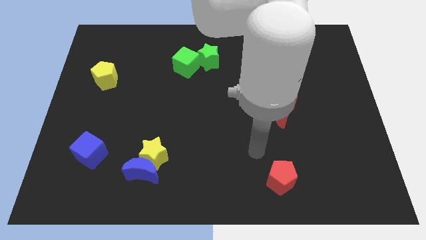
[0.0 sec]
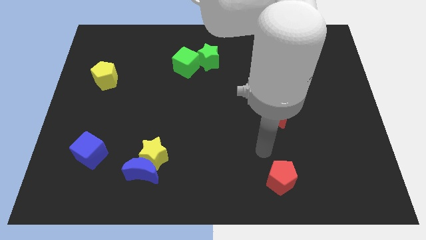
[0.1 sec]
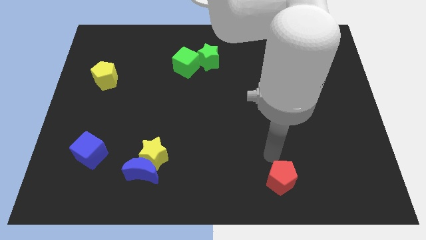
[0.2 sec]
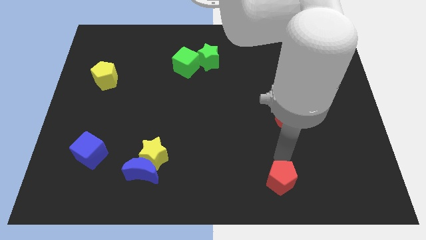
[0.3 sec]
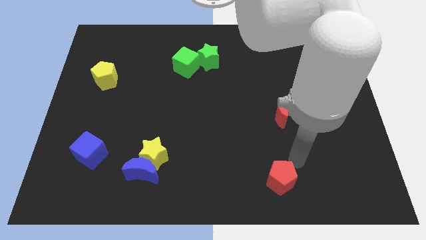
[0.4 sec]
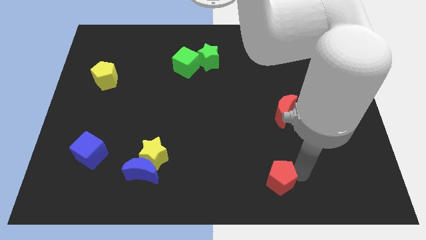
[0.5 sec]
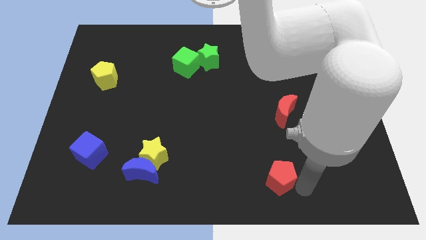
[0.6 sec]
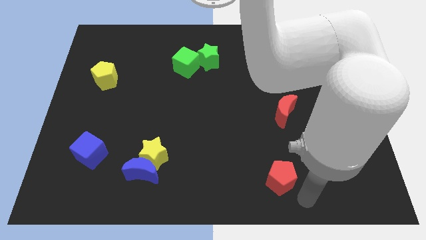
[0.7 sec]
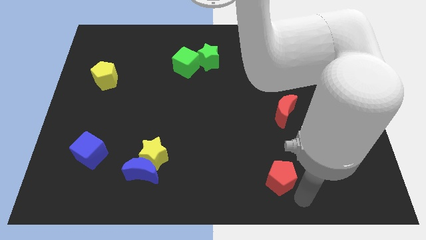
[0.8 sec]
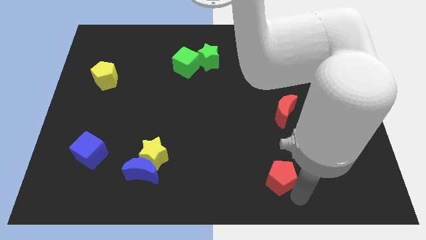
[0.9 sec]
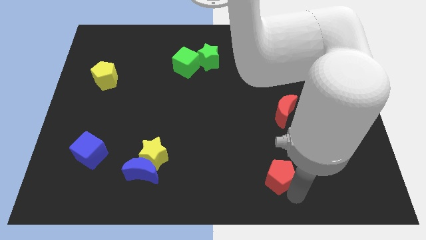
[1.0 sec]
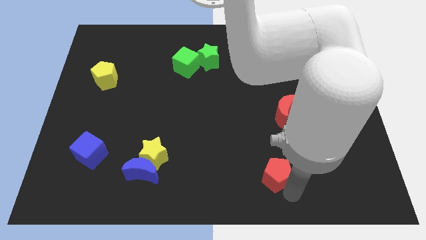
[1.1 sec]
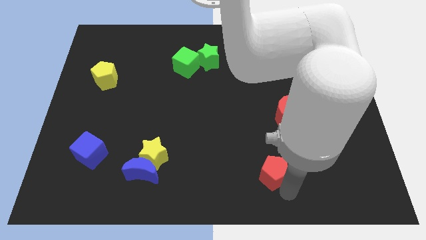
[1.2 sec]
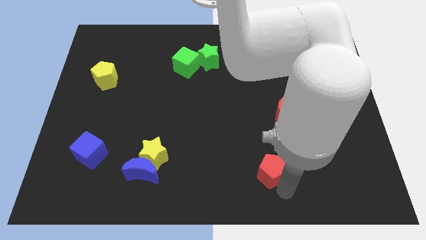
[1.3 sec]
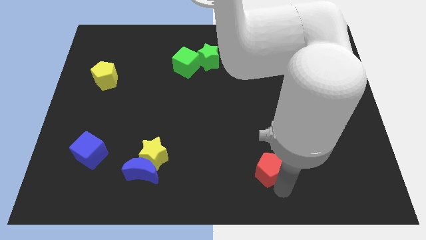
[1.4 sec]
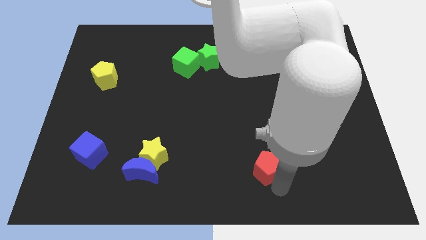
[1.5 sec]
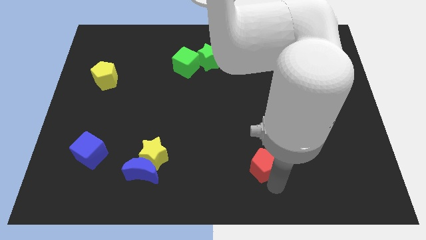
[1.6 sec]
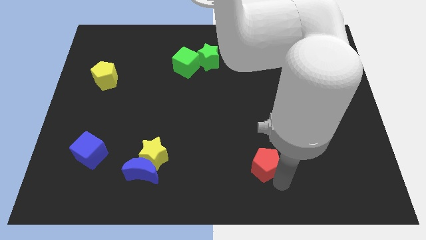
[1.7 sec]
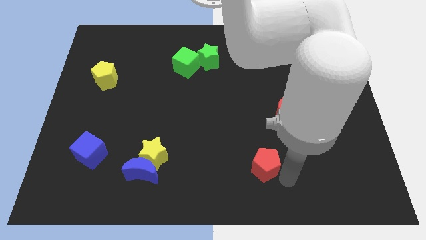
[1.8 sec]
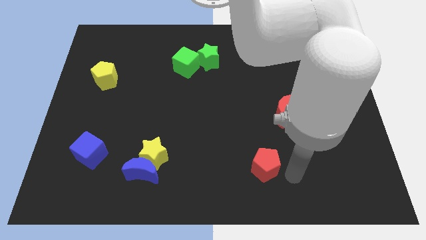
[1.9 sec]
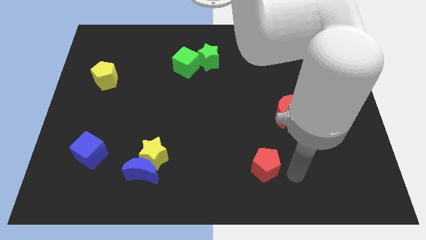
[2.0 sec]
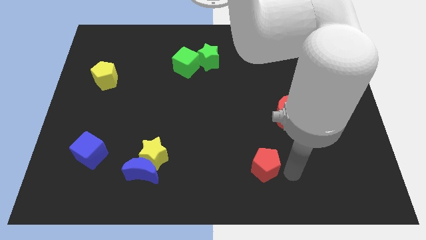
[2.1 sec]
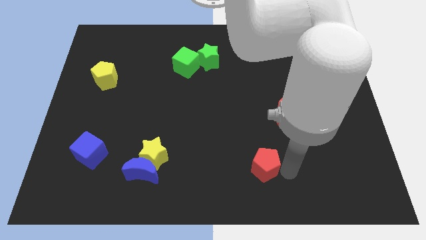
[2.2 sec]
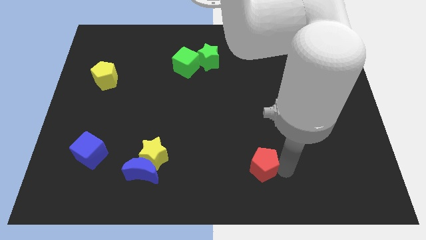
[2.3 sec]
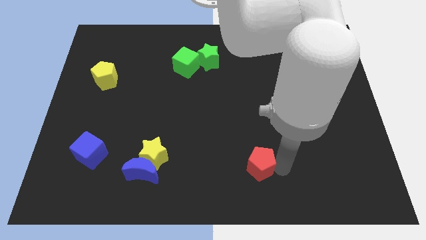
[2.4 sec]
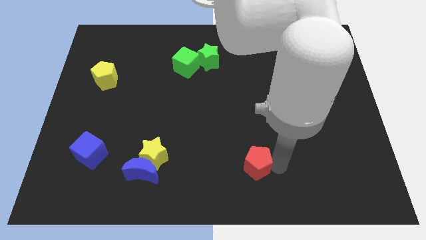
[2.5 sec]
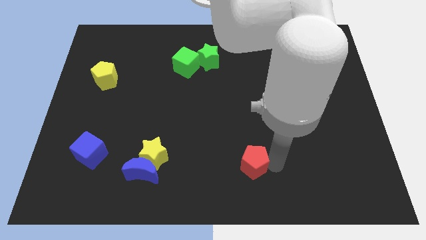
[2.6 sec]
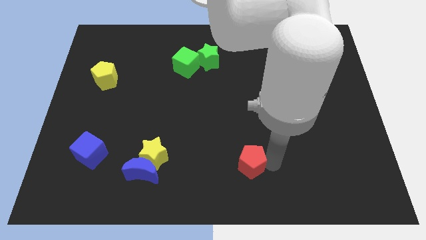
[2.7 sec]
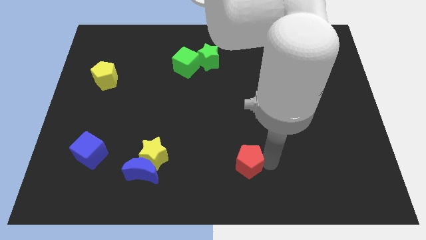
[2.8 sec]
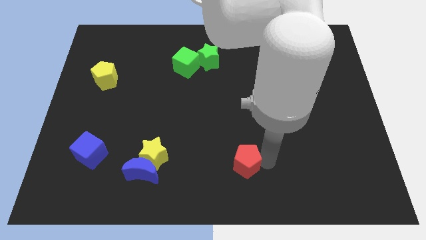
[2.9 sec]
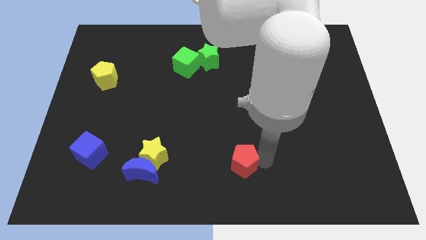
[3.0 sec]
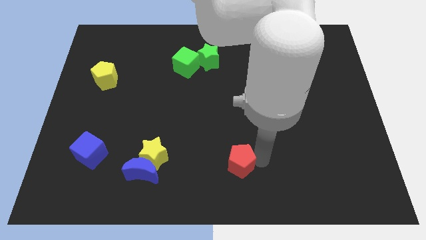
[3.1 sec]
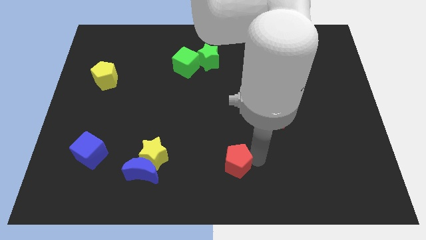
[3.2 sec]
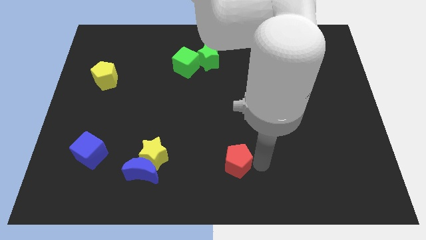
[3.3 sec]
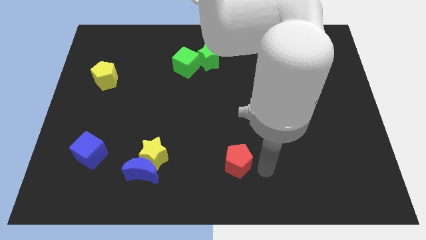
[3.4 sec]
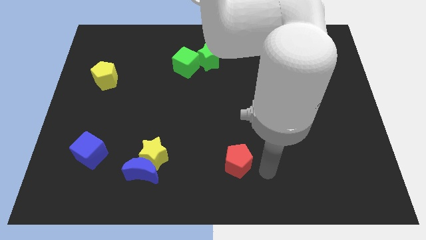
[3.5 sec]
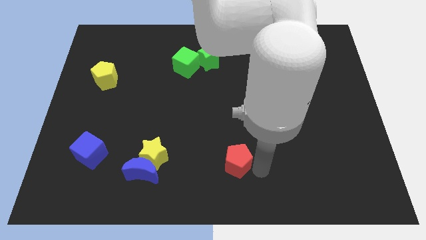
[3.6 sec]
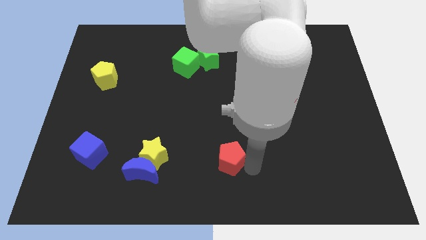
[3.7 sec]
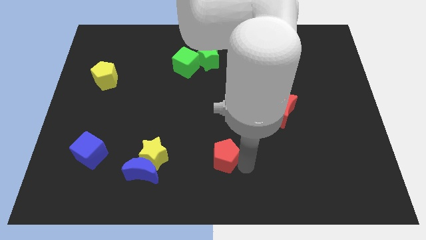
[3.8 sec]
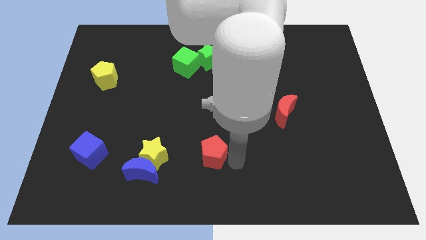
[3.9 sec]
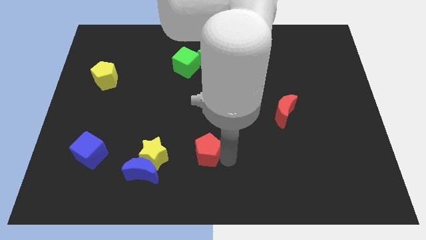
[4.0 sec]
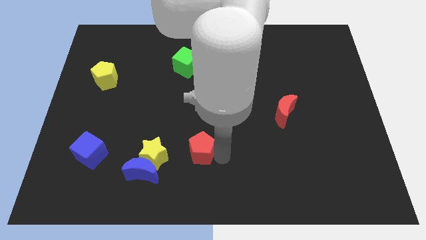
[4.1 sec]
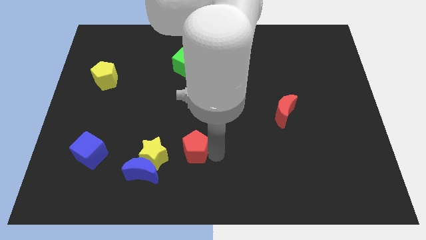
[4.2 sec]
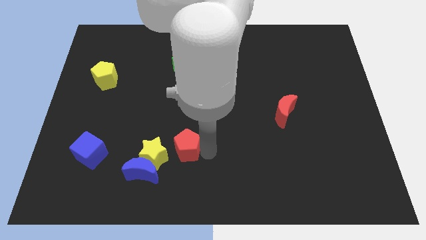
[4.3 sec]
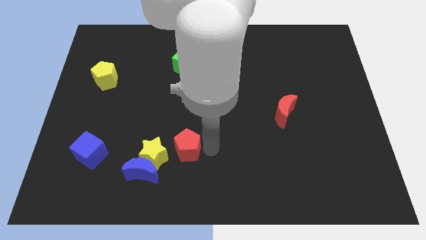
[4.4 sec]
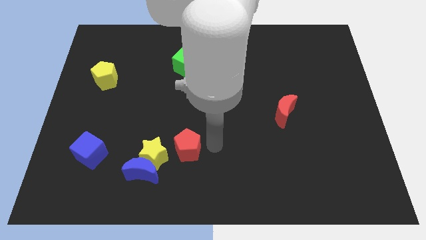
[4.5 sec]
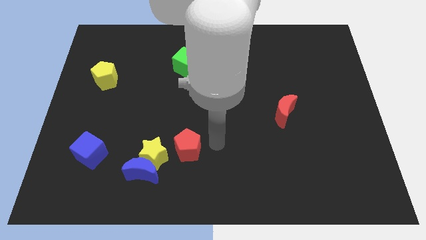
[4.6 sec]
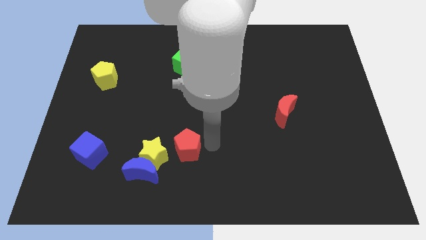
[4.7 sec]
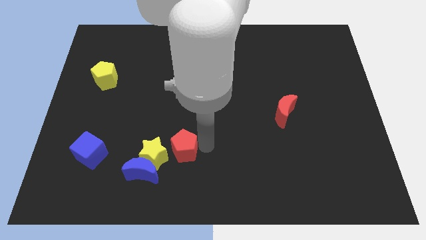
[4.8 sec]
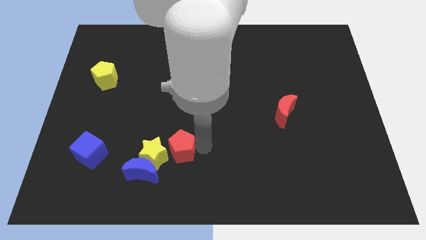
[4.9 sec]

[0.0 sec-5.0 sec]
slide the red pentagon close to the yellow star

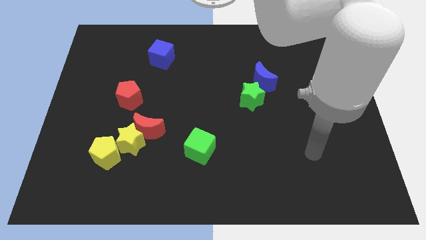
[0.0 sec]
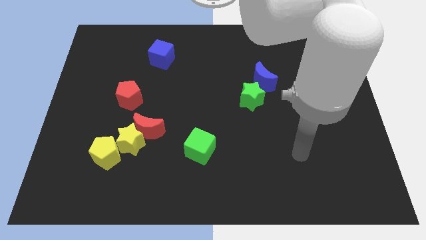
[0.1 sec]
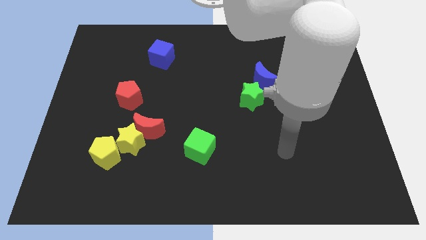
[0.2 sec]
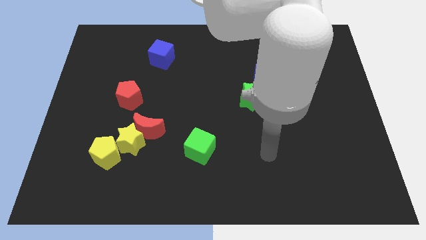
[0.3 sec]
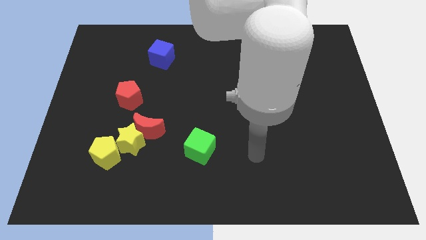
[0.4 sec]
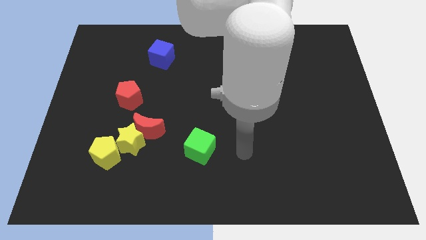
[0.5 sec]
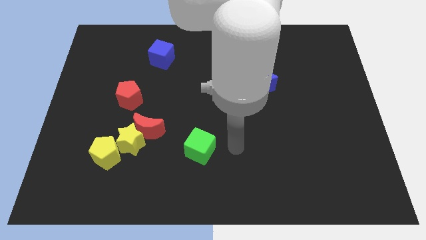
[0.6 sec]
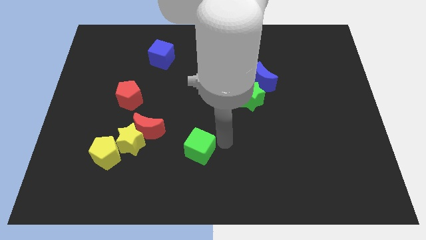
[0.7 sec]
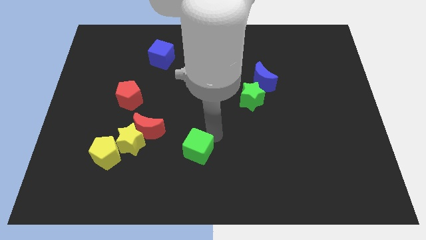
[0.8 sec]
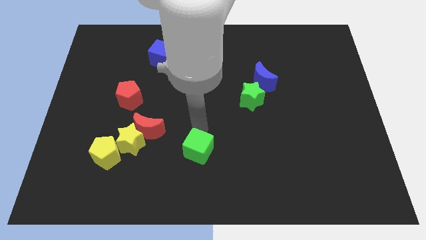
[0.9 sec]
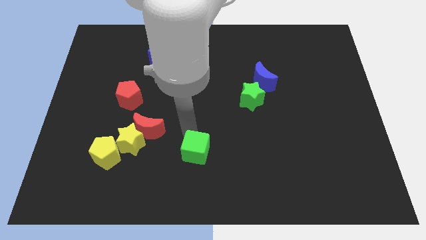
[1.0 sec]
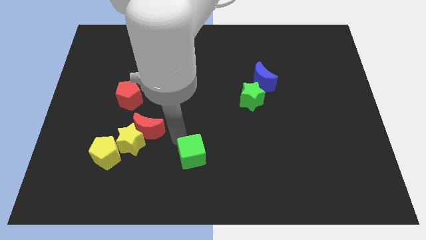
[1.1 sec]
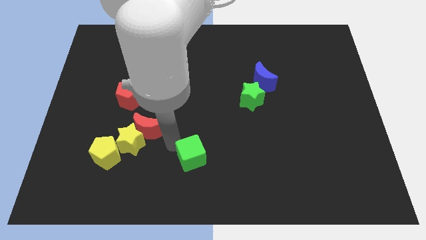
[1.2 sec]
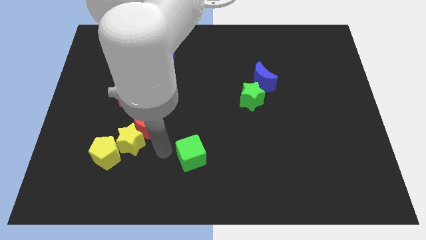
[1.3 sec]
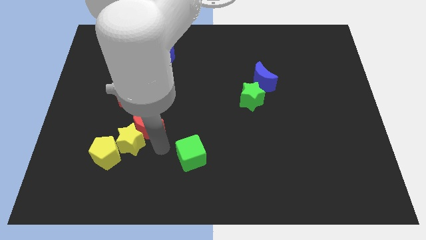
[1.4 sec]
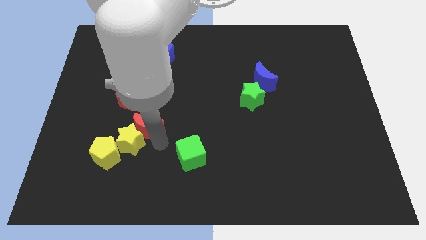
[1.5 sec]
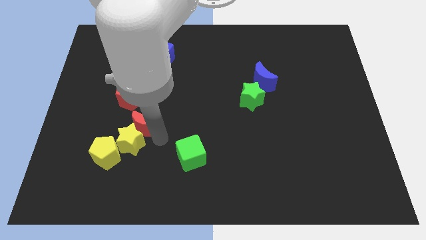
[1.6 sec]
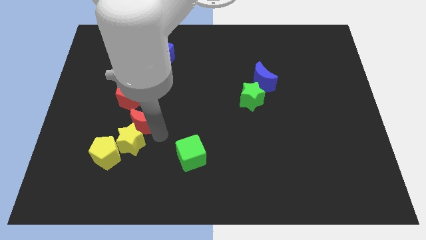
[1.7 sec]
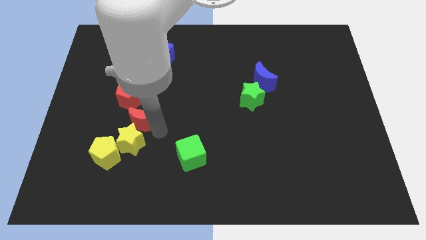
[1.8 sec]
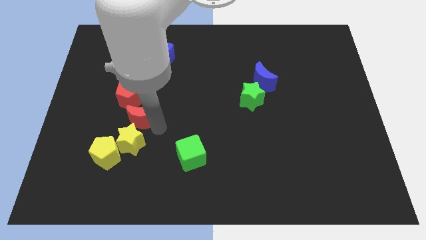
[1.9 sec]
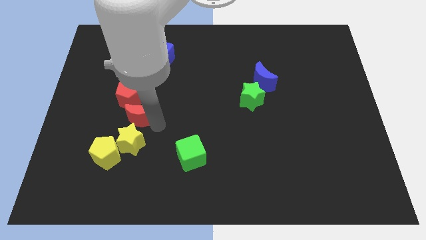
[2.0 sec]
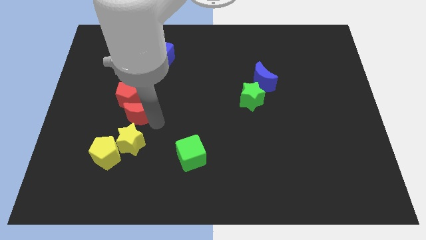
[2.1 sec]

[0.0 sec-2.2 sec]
push the red moon close to the red pentagon

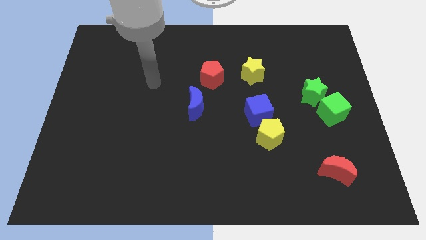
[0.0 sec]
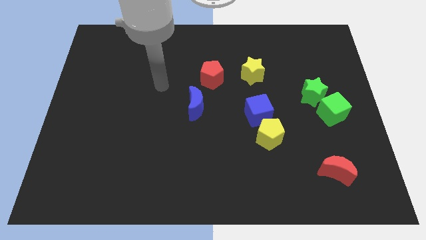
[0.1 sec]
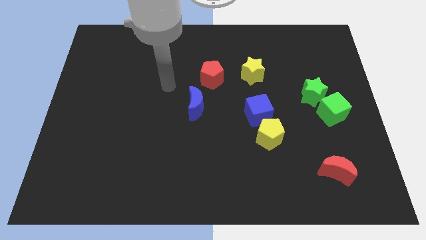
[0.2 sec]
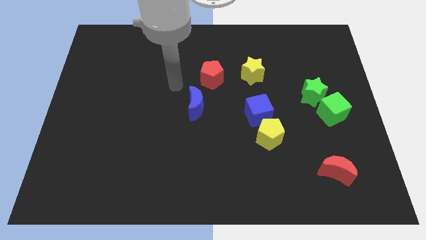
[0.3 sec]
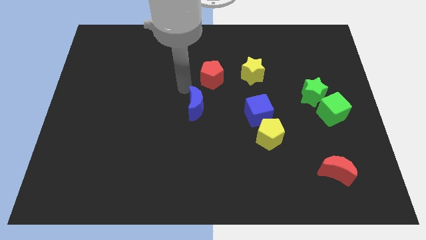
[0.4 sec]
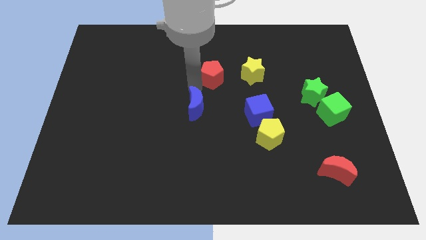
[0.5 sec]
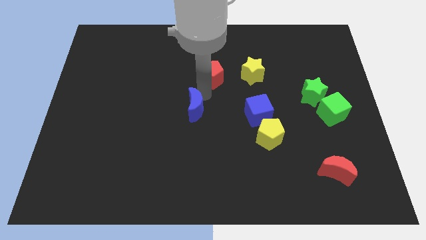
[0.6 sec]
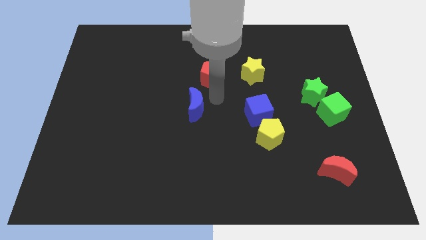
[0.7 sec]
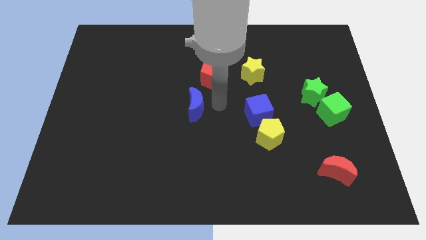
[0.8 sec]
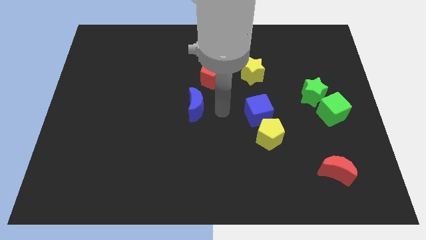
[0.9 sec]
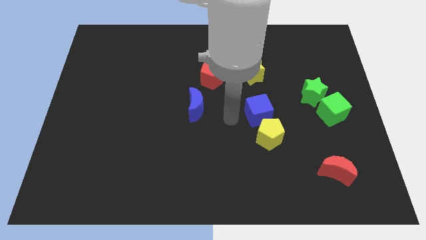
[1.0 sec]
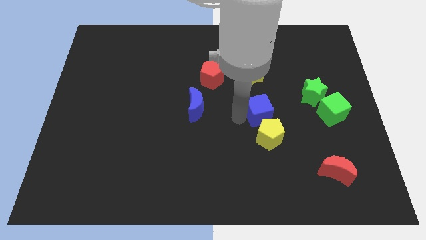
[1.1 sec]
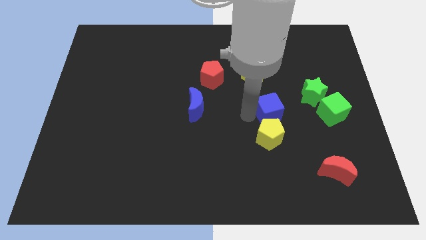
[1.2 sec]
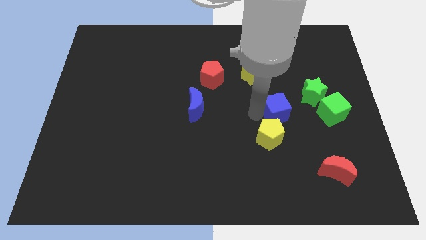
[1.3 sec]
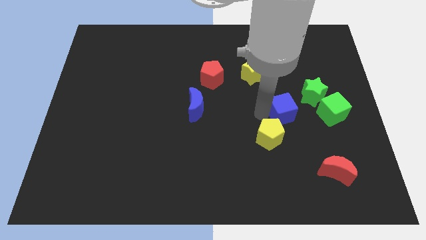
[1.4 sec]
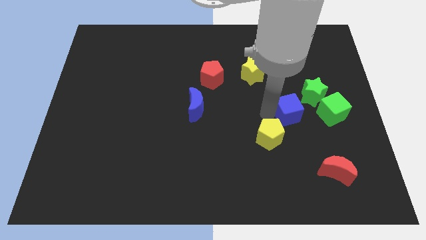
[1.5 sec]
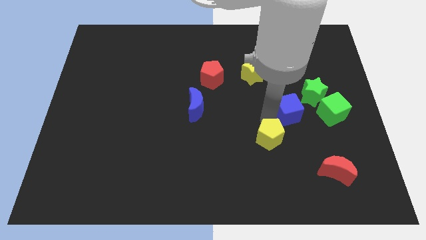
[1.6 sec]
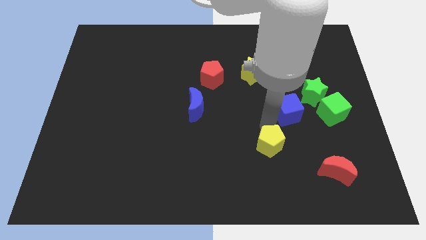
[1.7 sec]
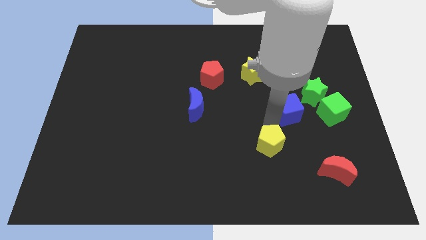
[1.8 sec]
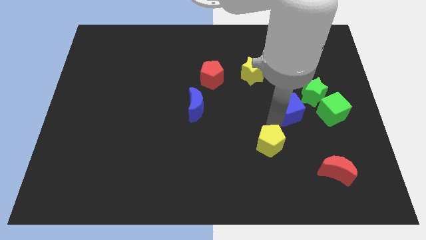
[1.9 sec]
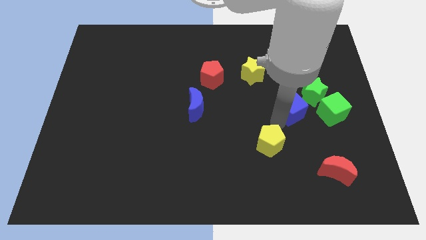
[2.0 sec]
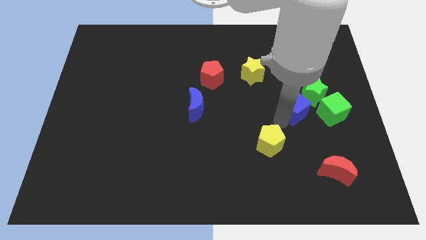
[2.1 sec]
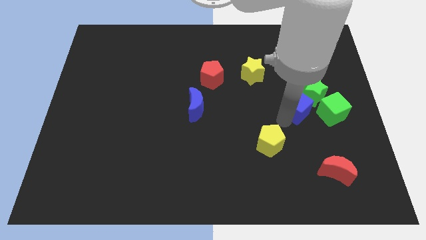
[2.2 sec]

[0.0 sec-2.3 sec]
slide the blue cube to the green star
